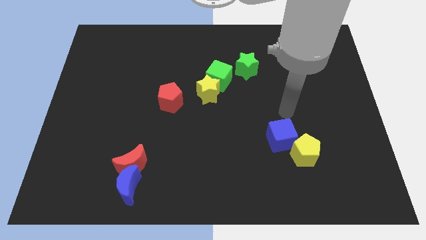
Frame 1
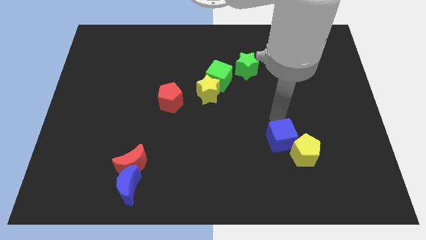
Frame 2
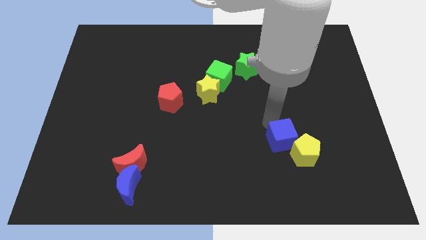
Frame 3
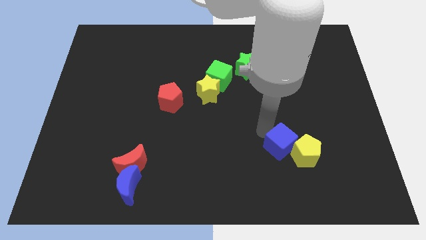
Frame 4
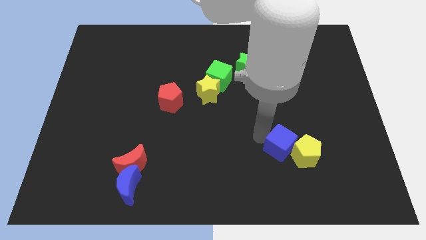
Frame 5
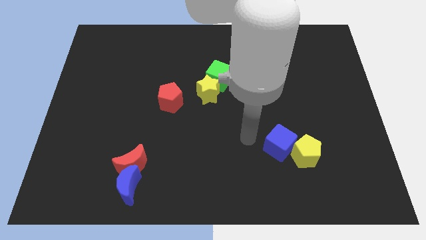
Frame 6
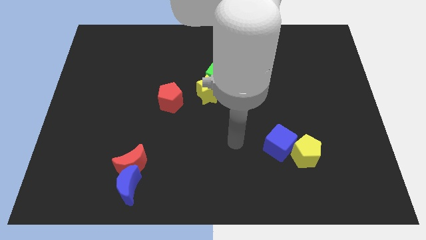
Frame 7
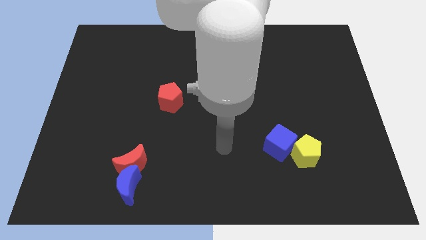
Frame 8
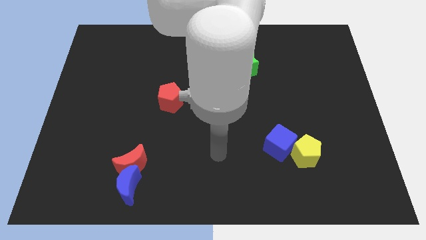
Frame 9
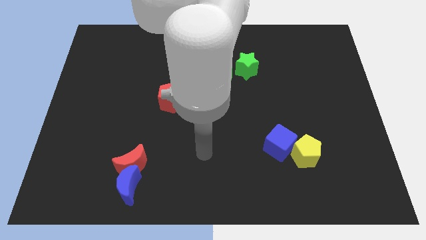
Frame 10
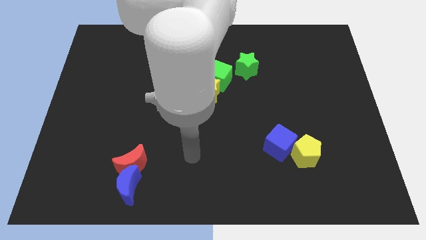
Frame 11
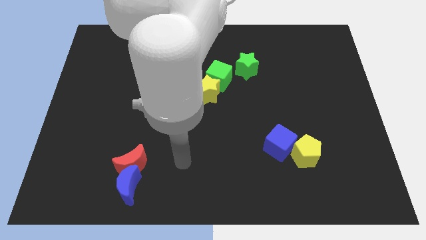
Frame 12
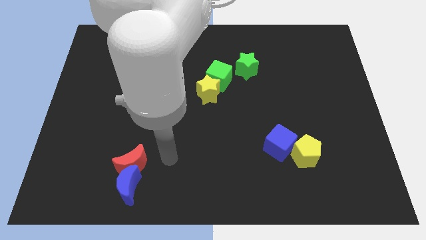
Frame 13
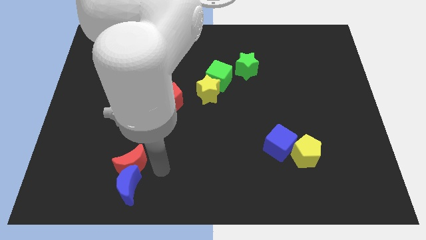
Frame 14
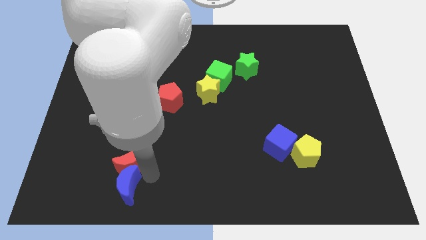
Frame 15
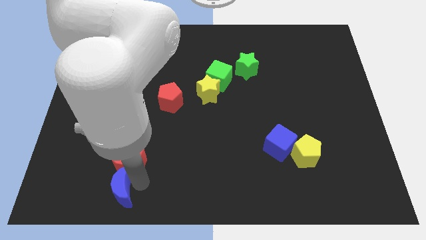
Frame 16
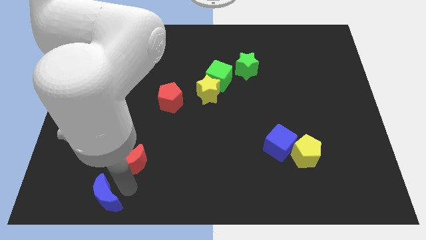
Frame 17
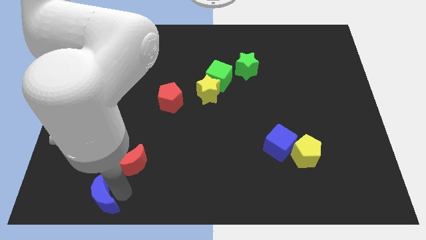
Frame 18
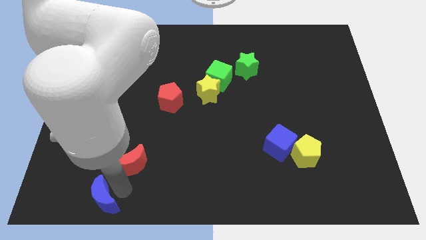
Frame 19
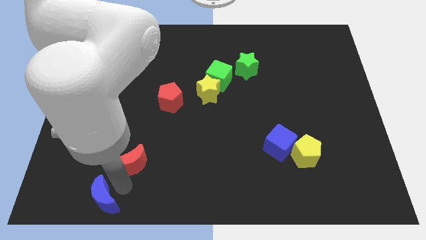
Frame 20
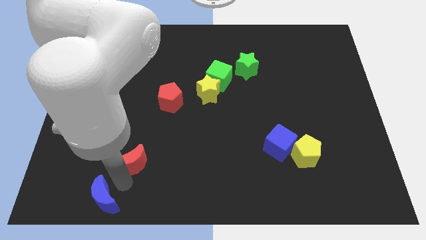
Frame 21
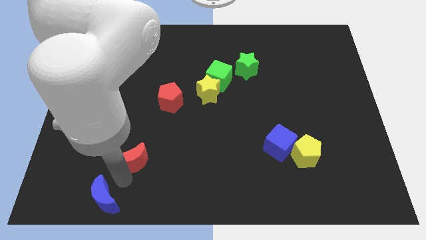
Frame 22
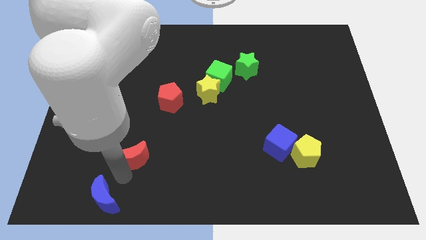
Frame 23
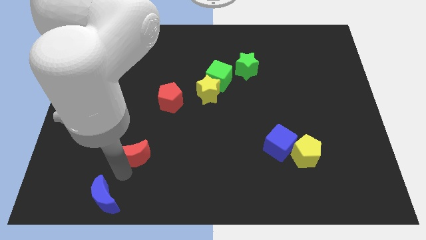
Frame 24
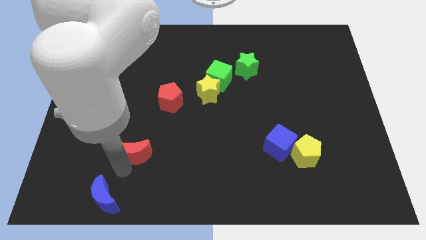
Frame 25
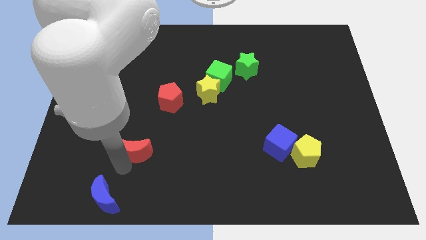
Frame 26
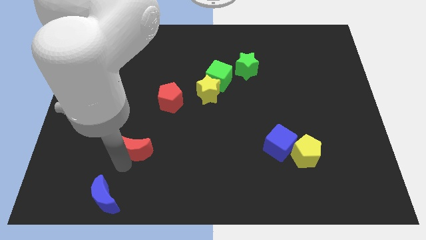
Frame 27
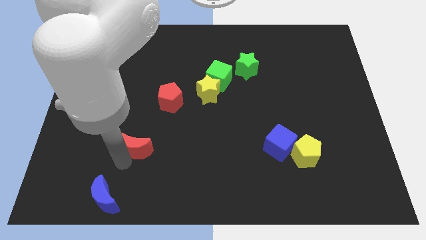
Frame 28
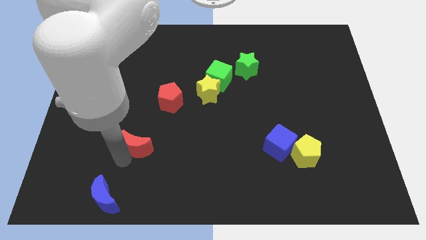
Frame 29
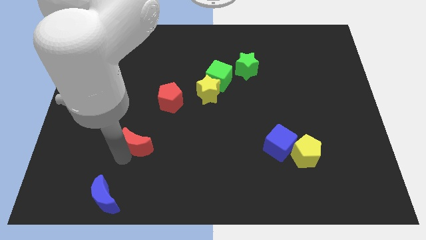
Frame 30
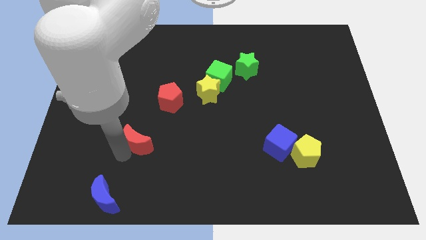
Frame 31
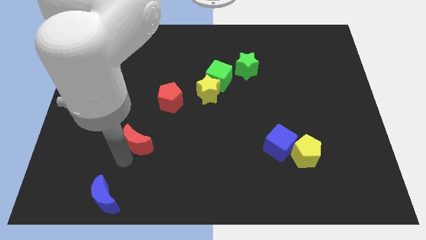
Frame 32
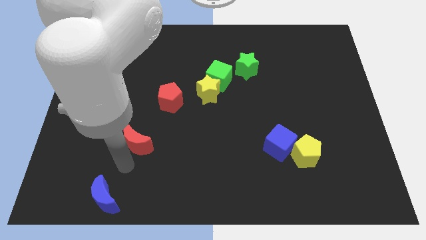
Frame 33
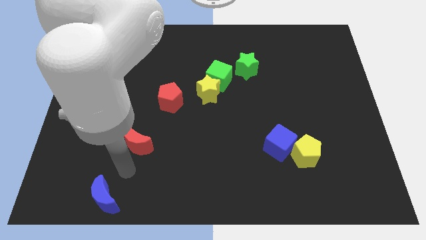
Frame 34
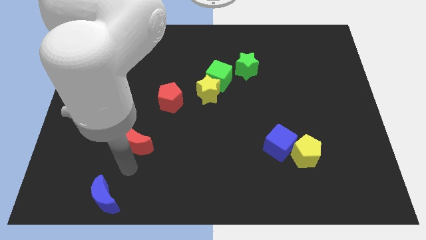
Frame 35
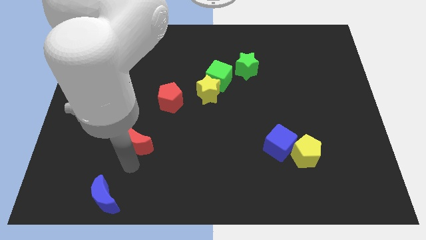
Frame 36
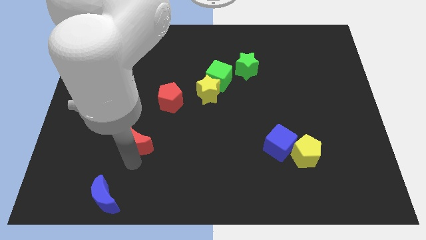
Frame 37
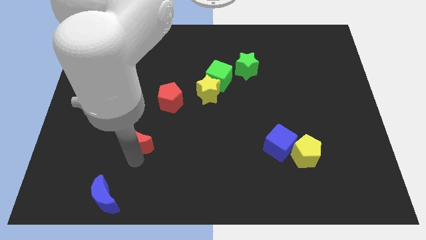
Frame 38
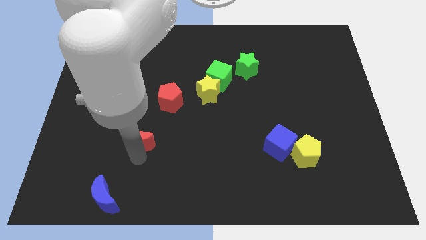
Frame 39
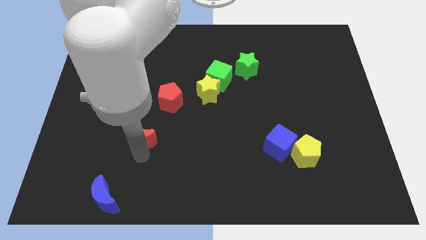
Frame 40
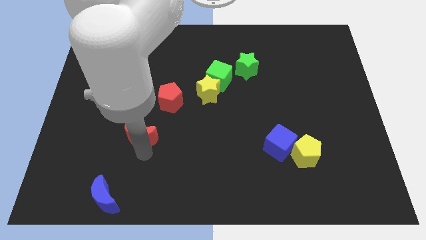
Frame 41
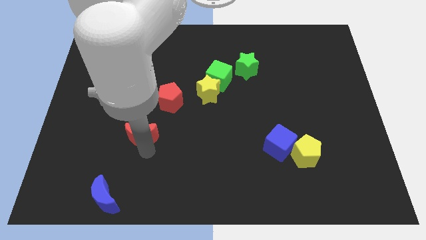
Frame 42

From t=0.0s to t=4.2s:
slightly move the red moon up

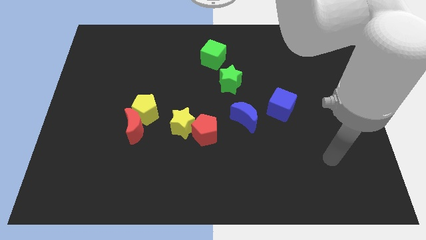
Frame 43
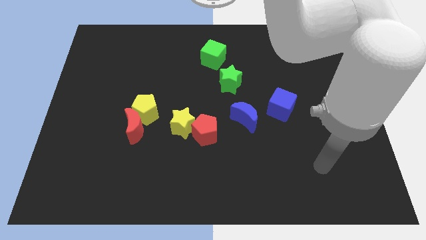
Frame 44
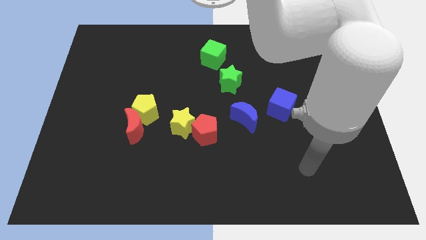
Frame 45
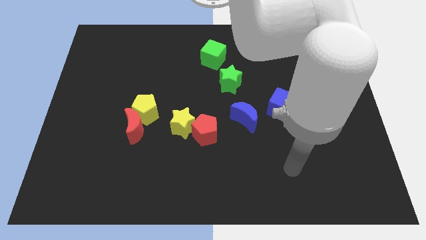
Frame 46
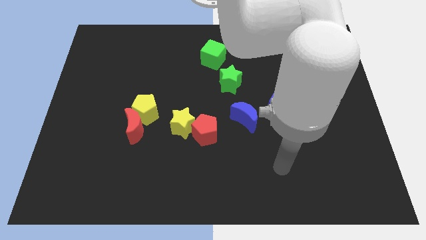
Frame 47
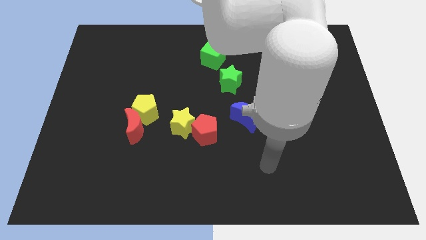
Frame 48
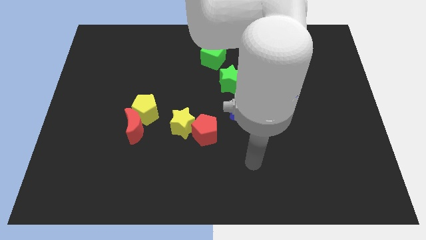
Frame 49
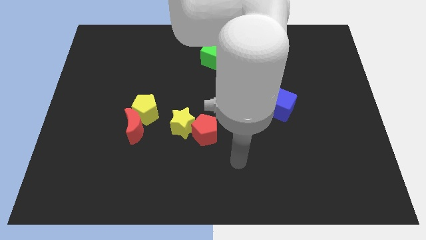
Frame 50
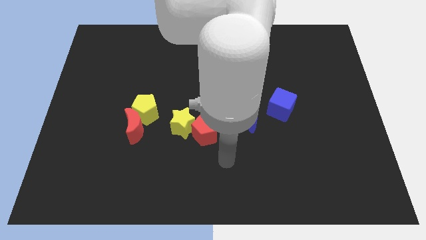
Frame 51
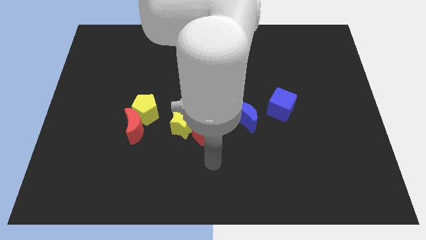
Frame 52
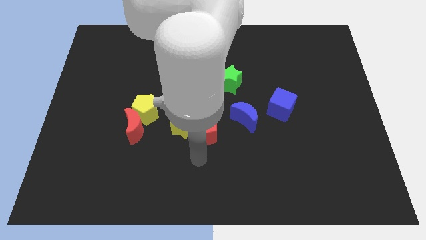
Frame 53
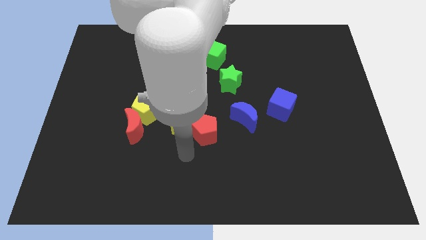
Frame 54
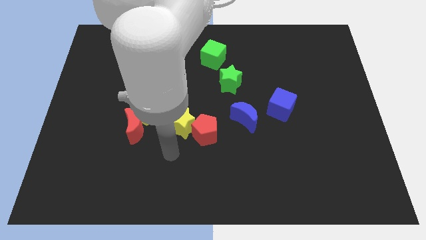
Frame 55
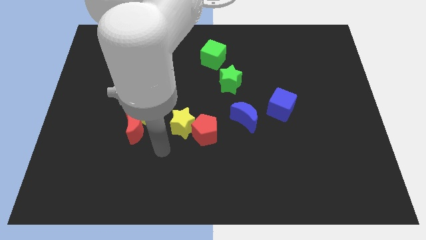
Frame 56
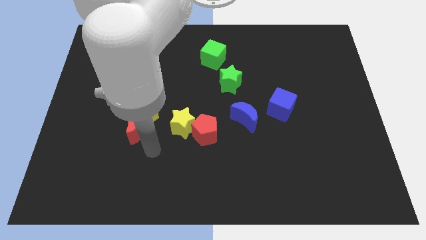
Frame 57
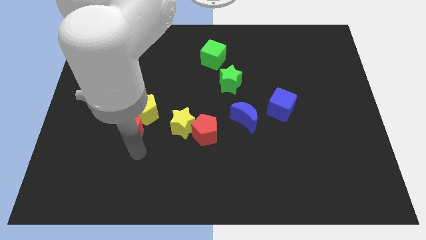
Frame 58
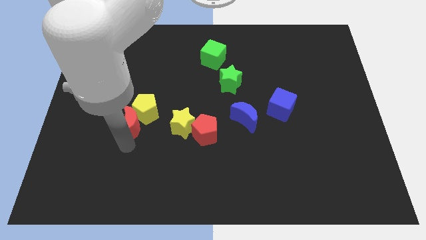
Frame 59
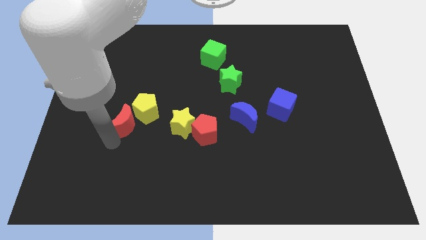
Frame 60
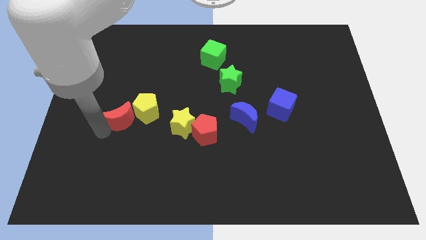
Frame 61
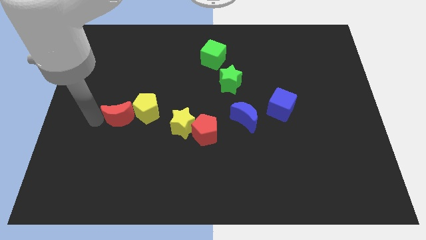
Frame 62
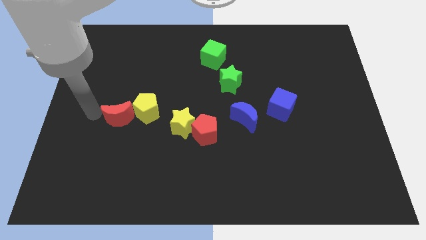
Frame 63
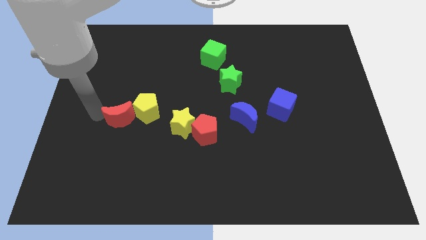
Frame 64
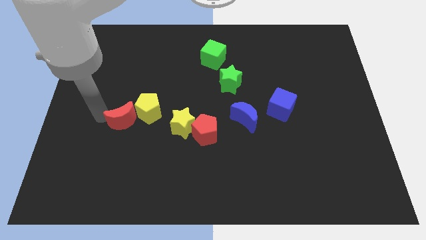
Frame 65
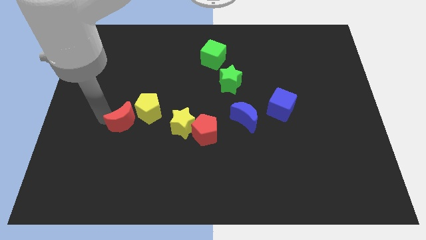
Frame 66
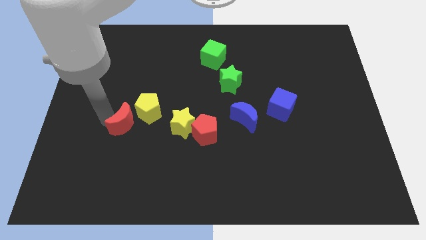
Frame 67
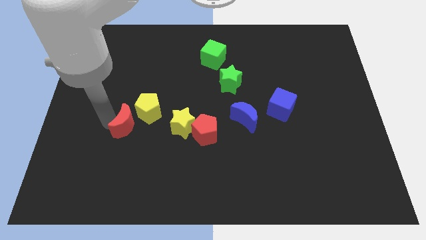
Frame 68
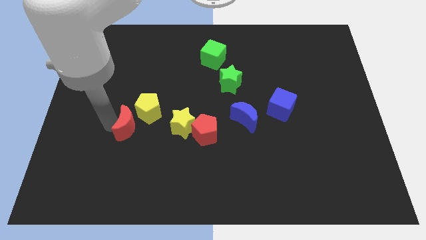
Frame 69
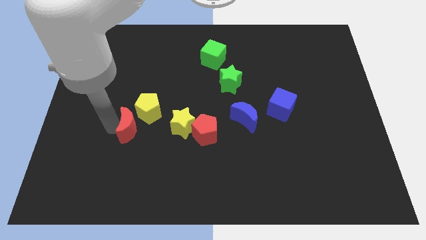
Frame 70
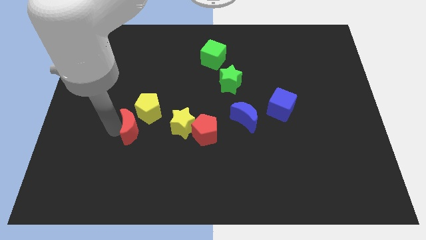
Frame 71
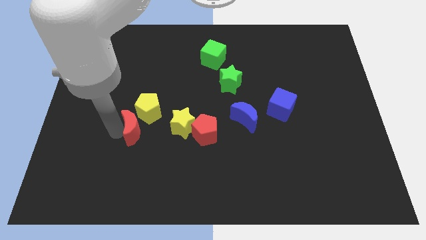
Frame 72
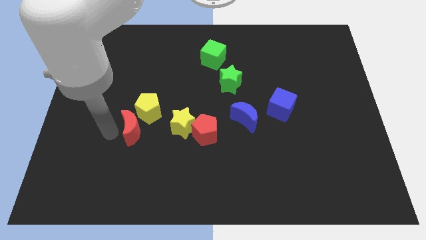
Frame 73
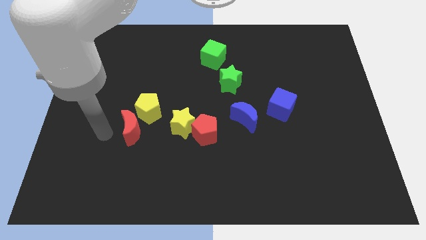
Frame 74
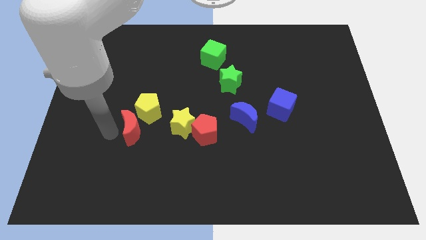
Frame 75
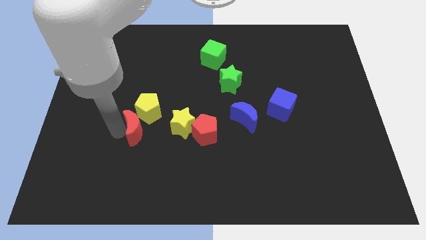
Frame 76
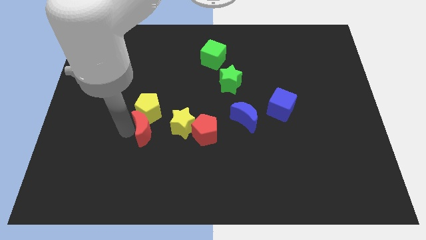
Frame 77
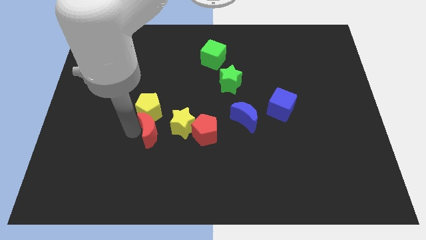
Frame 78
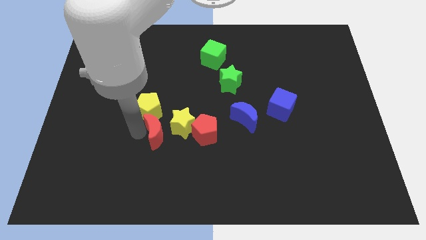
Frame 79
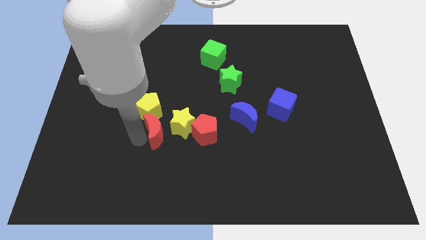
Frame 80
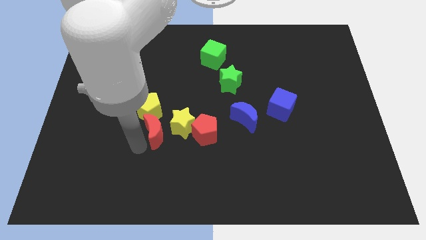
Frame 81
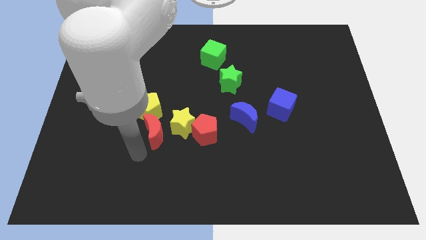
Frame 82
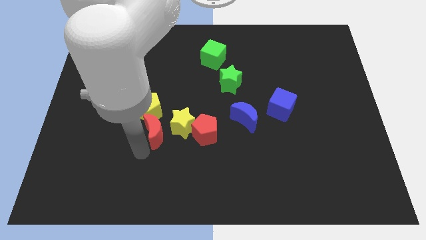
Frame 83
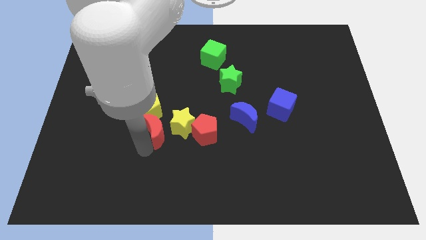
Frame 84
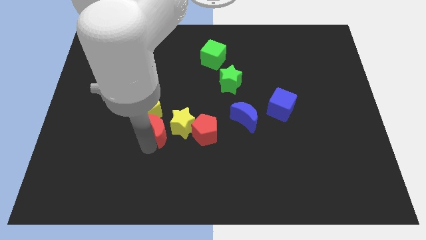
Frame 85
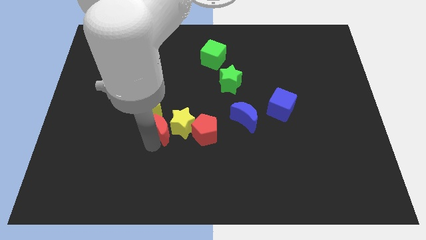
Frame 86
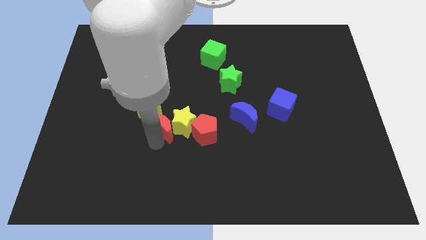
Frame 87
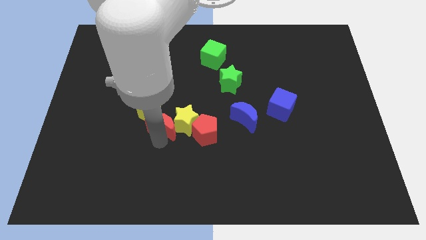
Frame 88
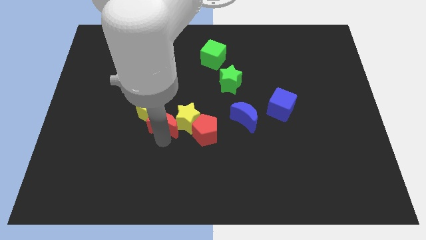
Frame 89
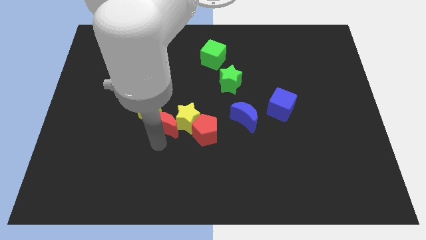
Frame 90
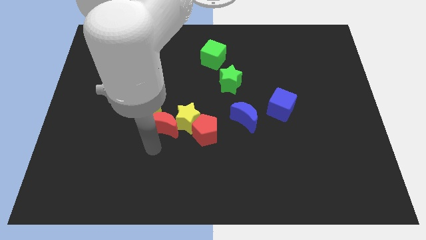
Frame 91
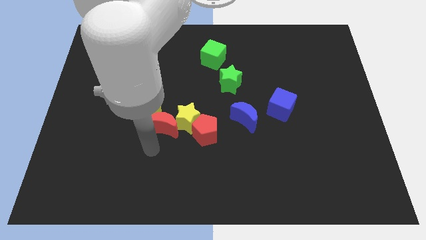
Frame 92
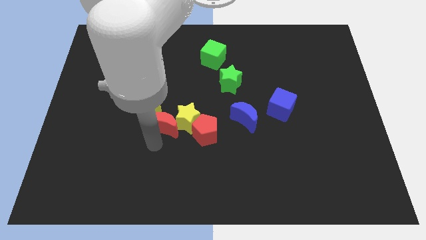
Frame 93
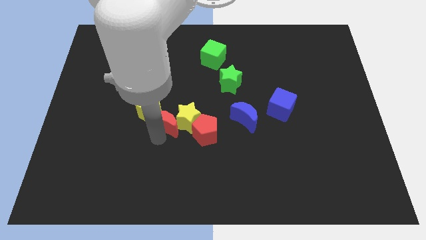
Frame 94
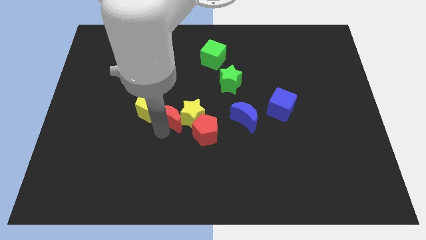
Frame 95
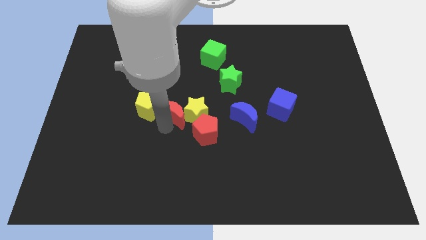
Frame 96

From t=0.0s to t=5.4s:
slightly slide the red moon diagonally upwards and to the right
